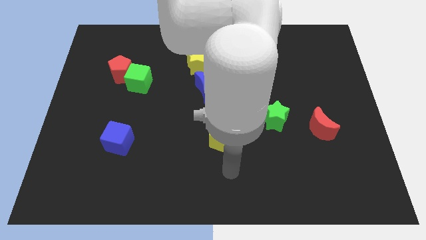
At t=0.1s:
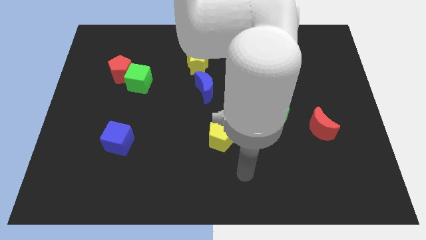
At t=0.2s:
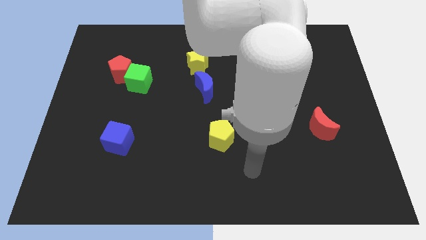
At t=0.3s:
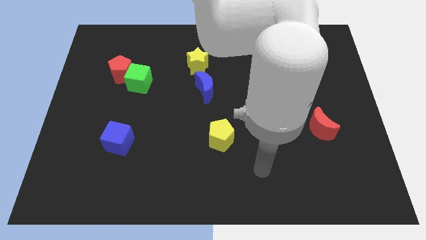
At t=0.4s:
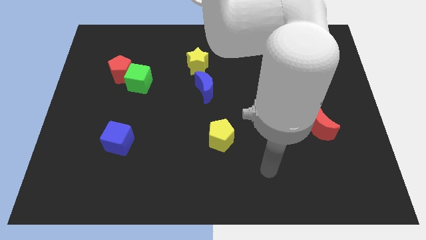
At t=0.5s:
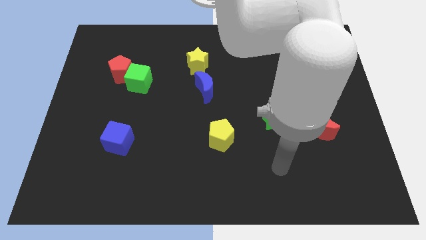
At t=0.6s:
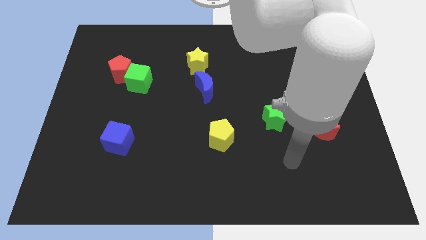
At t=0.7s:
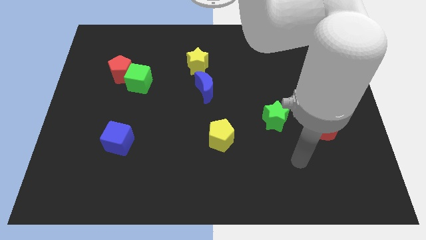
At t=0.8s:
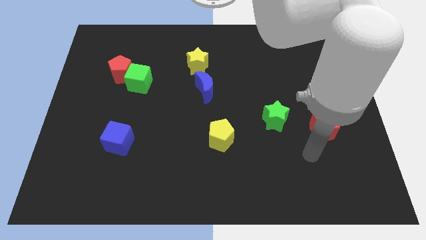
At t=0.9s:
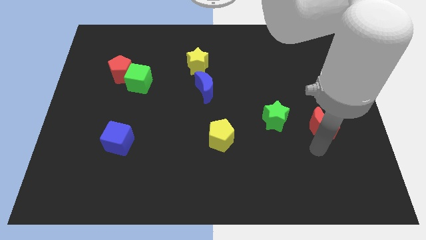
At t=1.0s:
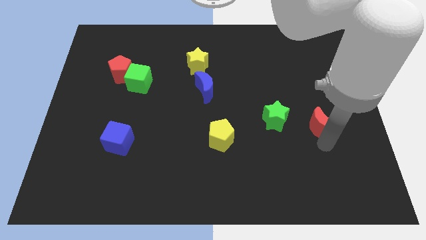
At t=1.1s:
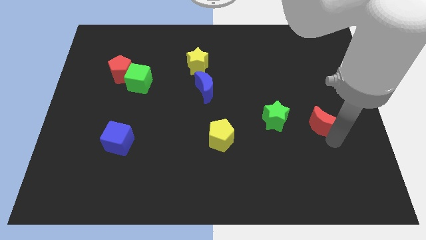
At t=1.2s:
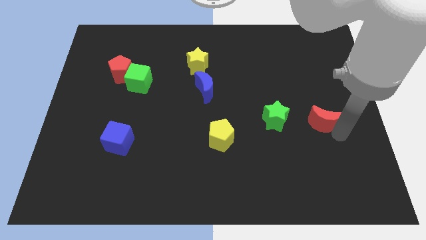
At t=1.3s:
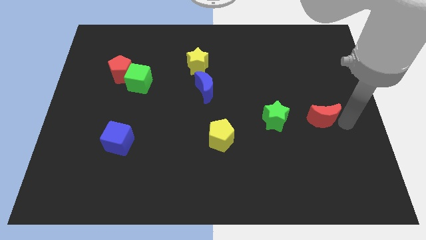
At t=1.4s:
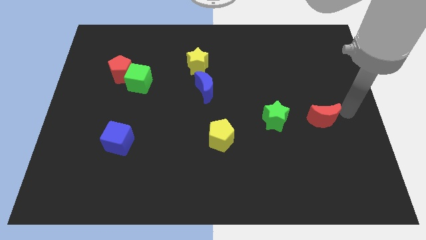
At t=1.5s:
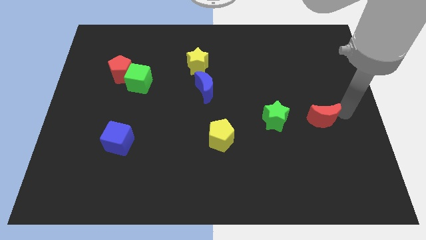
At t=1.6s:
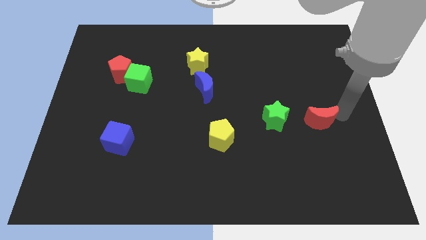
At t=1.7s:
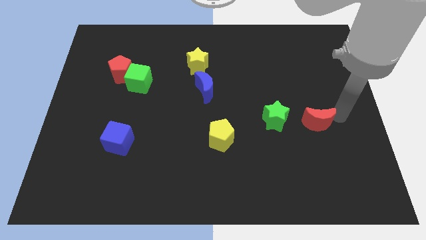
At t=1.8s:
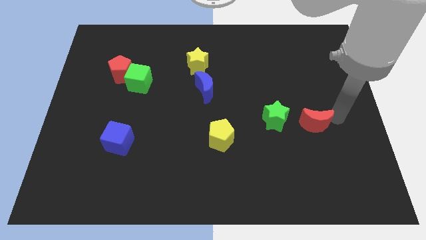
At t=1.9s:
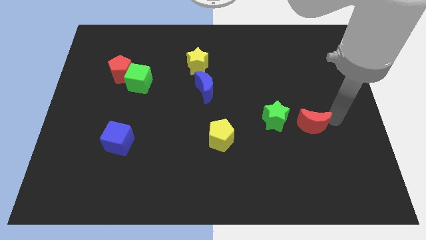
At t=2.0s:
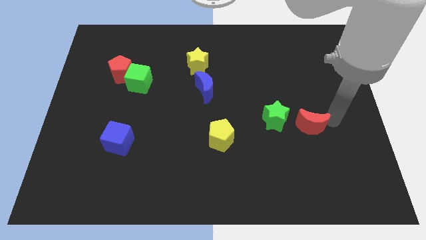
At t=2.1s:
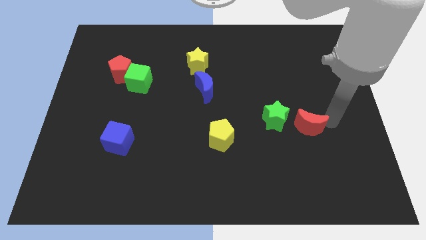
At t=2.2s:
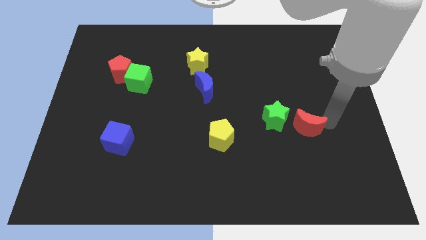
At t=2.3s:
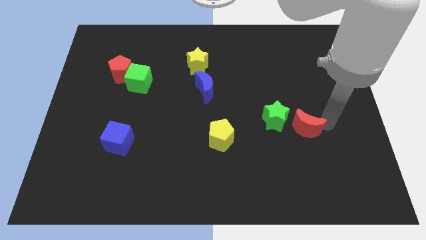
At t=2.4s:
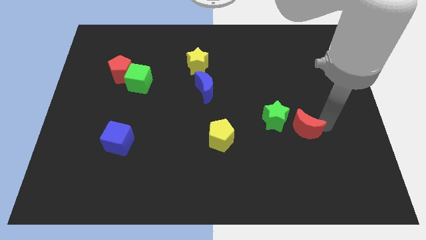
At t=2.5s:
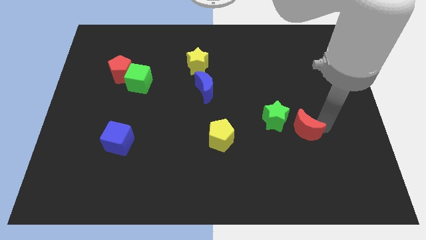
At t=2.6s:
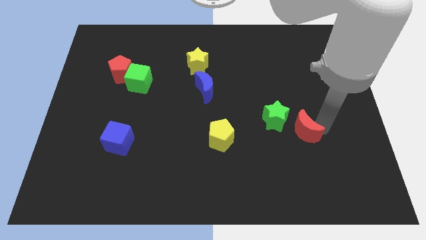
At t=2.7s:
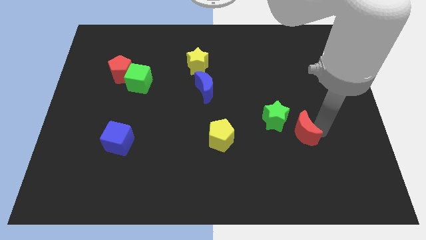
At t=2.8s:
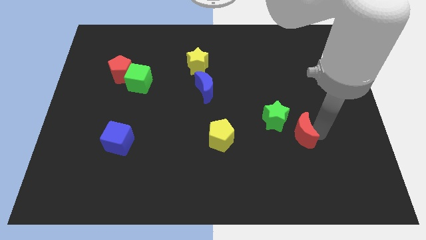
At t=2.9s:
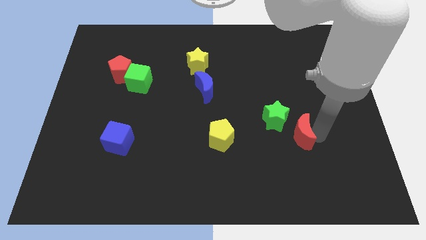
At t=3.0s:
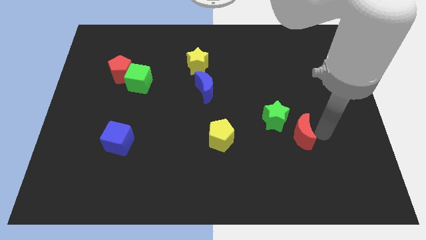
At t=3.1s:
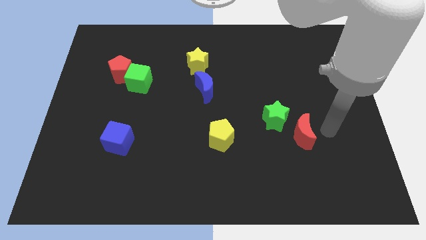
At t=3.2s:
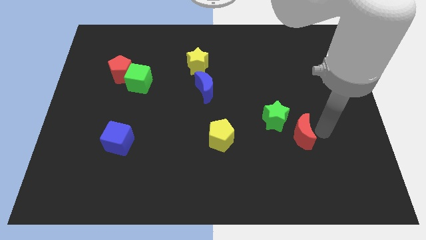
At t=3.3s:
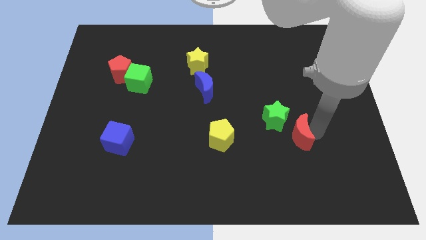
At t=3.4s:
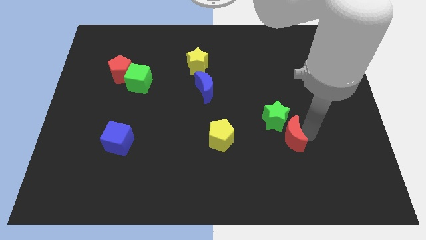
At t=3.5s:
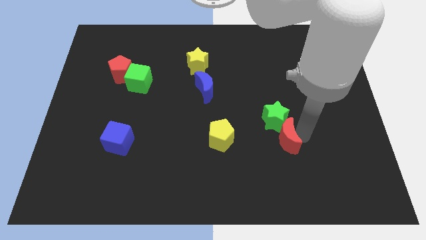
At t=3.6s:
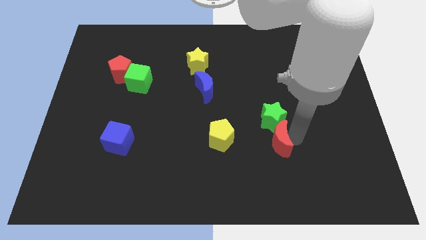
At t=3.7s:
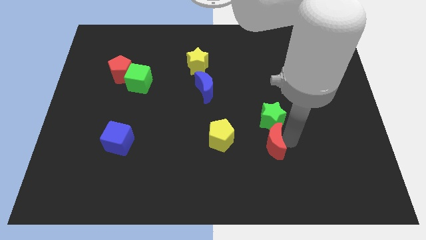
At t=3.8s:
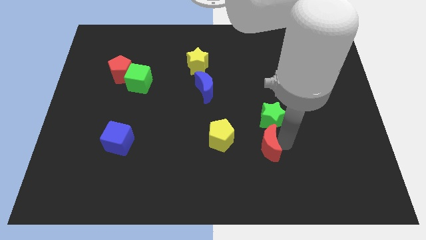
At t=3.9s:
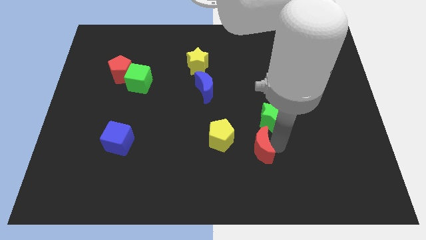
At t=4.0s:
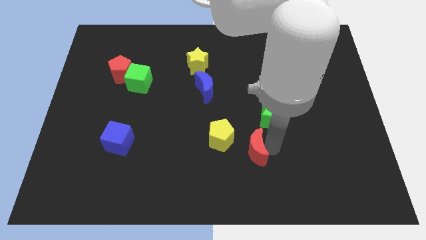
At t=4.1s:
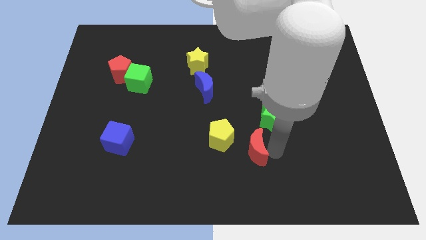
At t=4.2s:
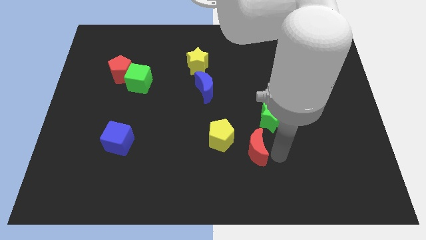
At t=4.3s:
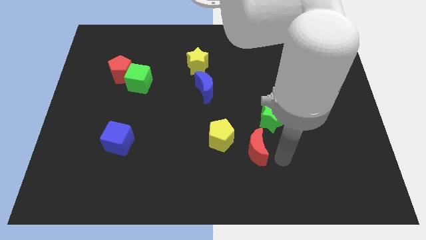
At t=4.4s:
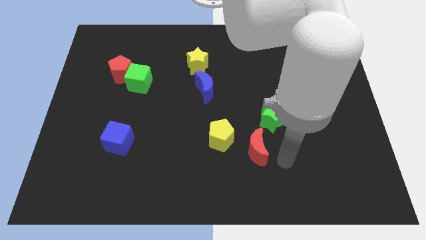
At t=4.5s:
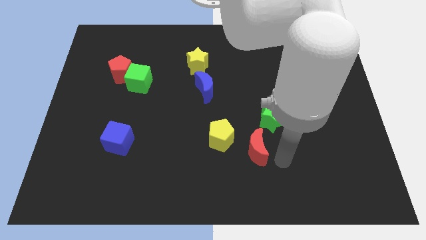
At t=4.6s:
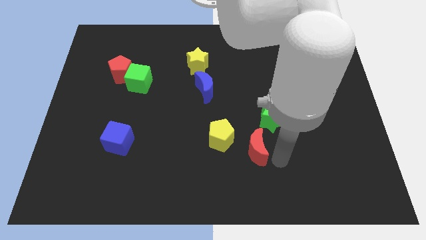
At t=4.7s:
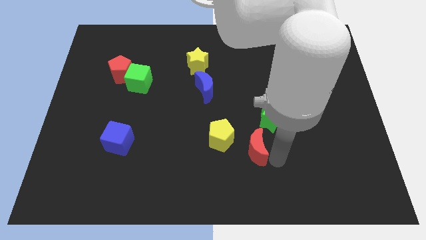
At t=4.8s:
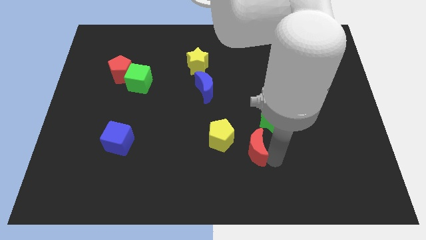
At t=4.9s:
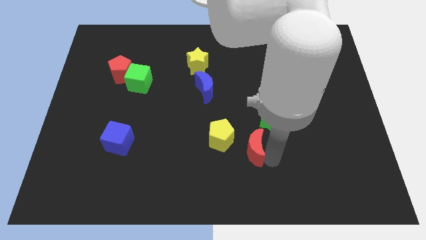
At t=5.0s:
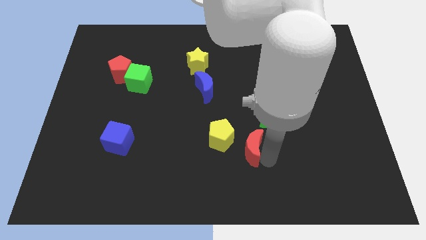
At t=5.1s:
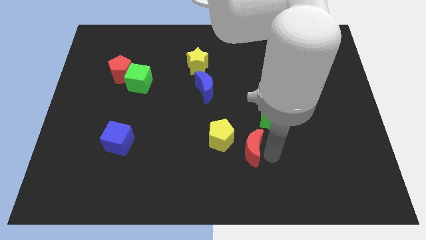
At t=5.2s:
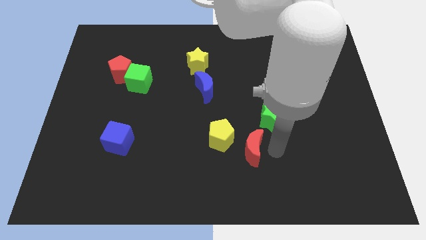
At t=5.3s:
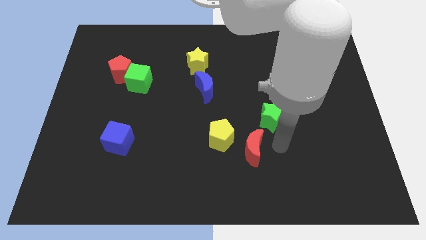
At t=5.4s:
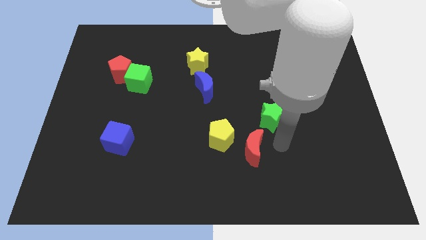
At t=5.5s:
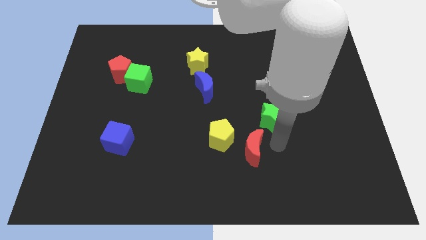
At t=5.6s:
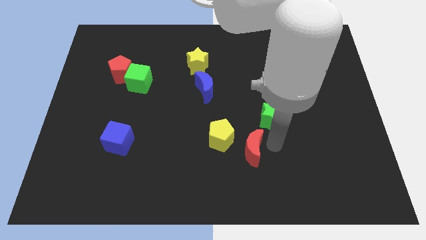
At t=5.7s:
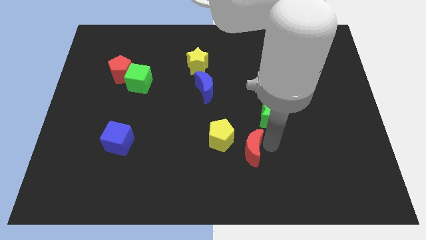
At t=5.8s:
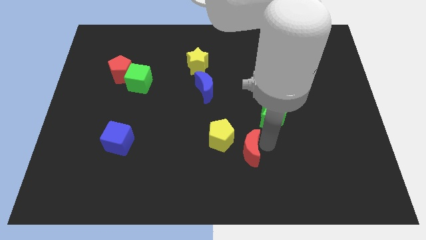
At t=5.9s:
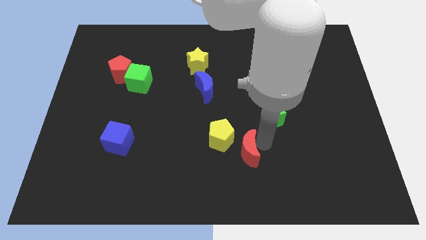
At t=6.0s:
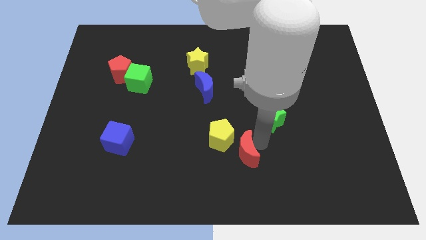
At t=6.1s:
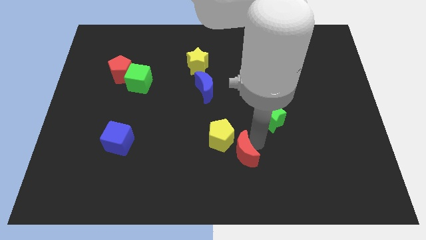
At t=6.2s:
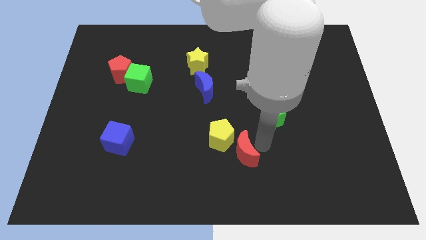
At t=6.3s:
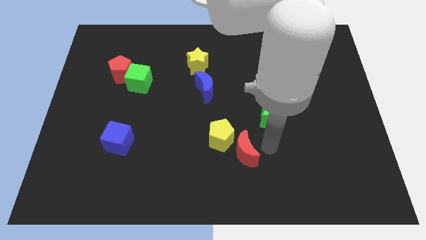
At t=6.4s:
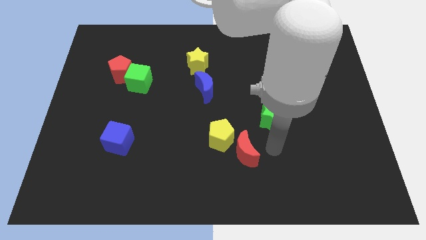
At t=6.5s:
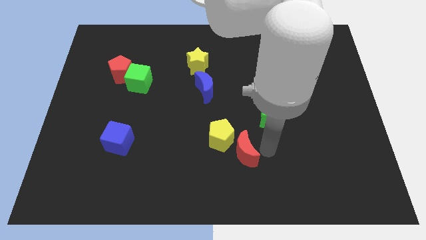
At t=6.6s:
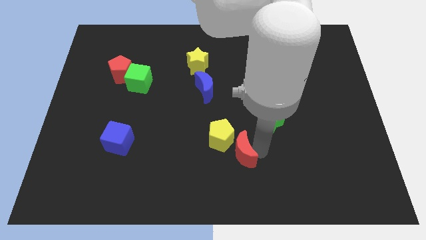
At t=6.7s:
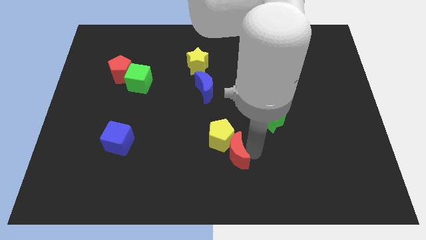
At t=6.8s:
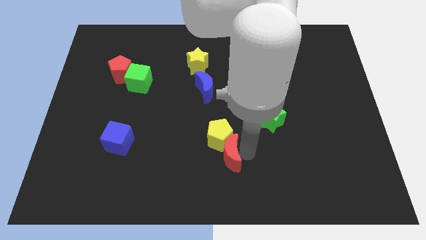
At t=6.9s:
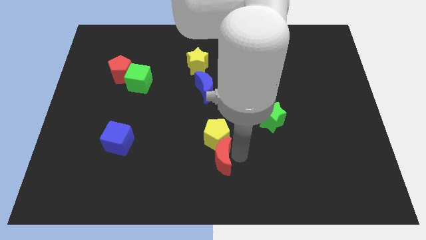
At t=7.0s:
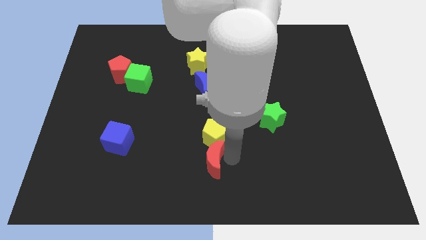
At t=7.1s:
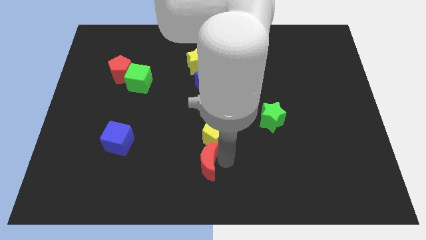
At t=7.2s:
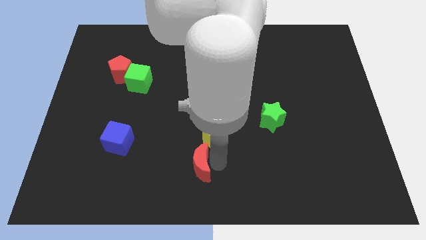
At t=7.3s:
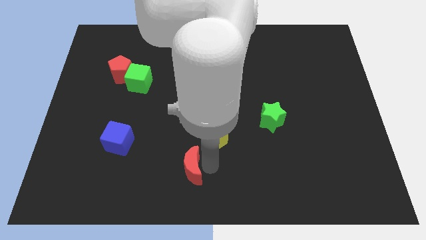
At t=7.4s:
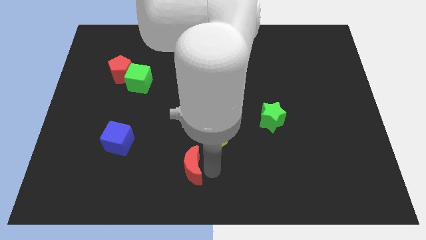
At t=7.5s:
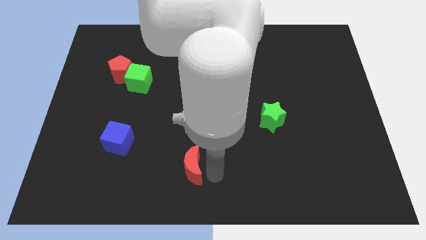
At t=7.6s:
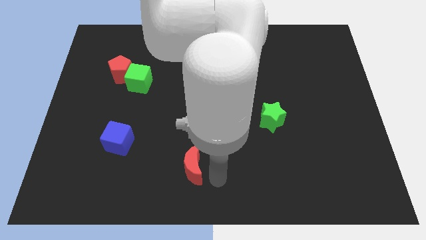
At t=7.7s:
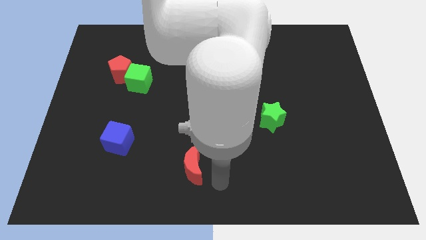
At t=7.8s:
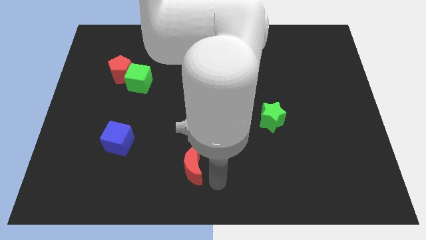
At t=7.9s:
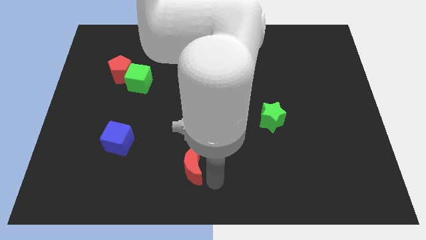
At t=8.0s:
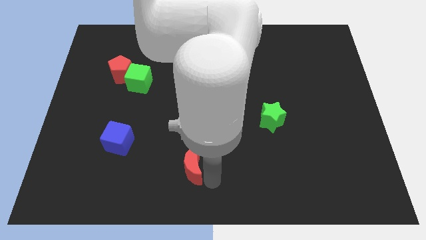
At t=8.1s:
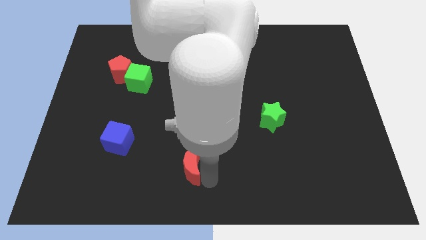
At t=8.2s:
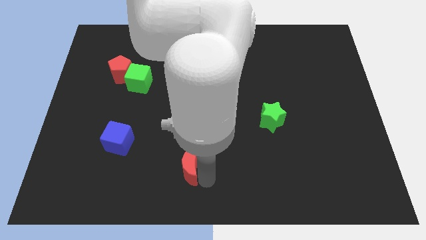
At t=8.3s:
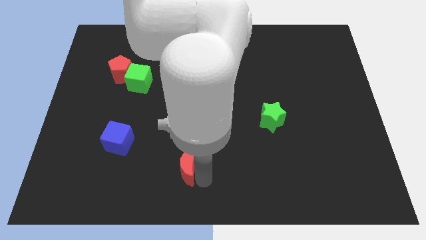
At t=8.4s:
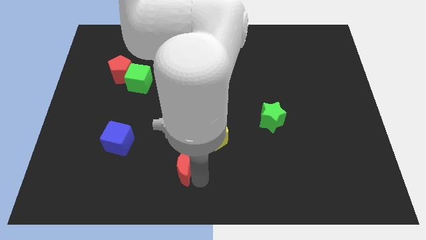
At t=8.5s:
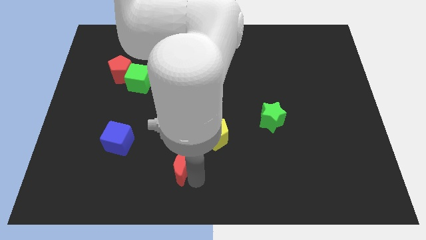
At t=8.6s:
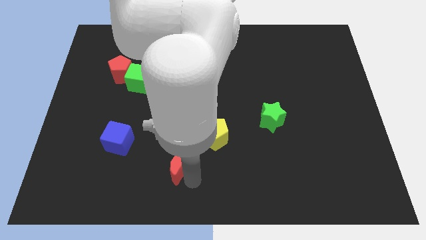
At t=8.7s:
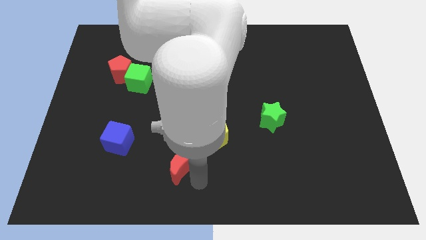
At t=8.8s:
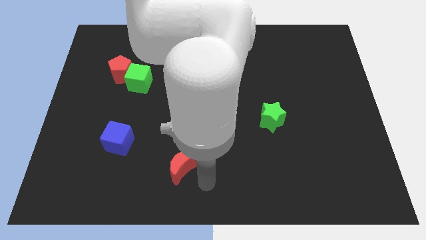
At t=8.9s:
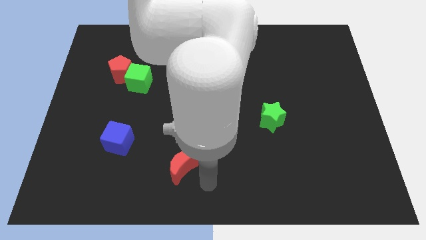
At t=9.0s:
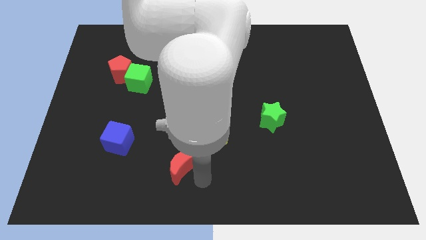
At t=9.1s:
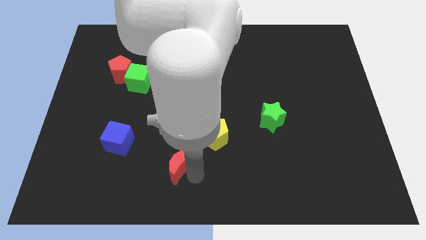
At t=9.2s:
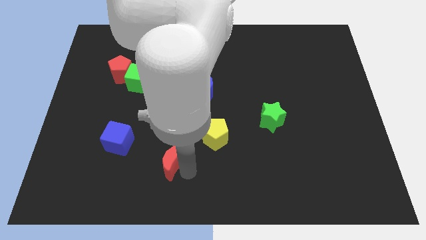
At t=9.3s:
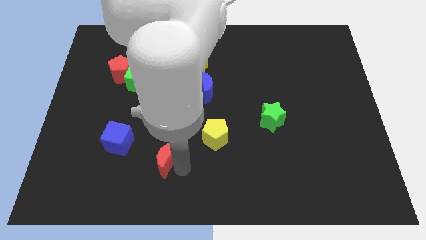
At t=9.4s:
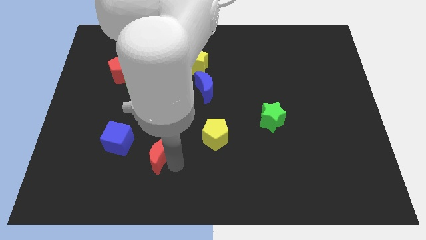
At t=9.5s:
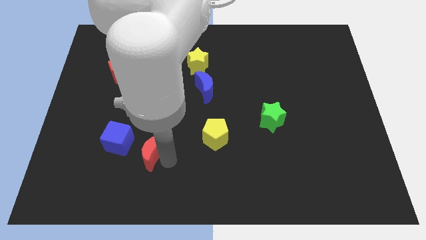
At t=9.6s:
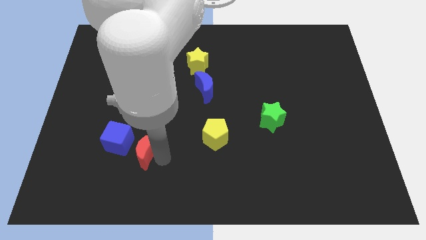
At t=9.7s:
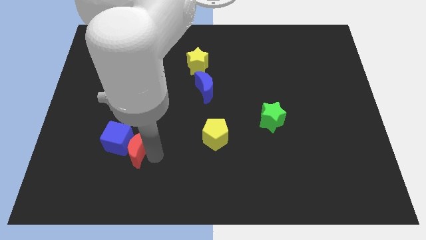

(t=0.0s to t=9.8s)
slide the red moon to the blue cube
